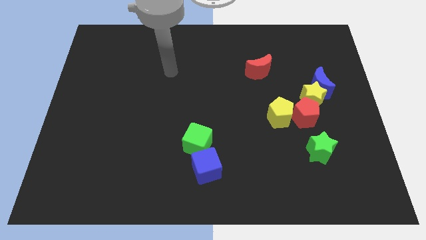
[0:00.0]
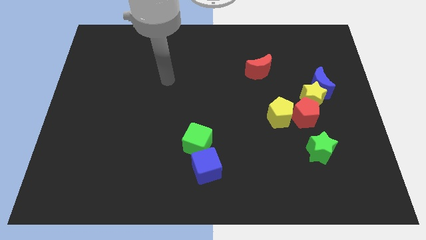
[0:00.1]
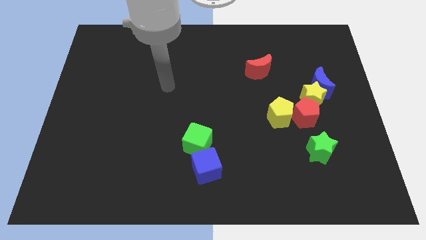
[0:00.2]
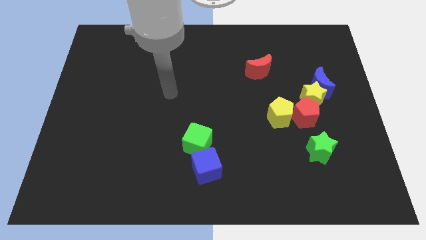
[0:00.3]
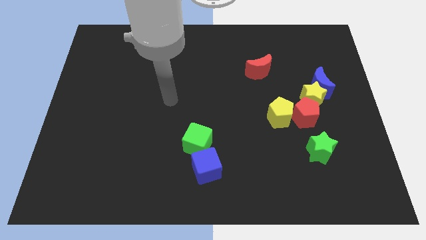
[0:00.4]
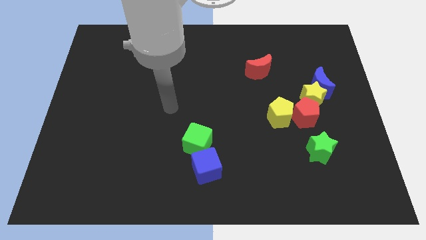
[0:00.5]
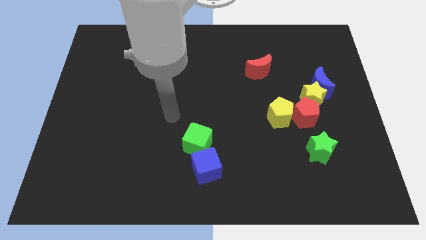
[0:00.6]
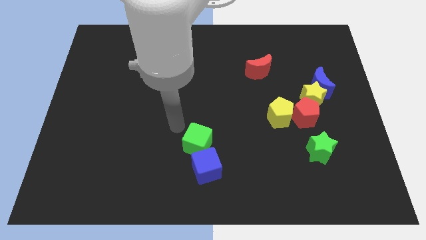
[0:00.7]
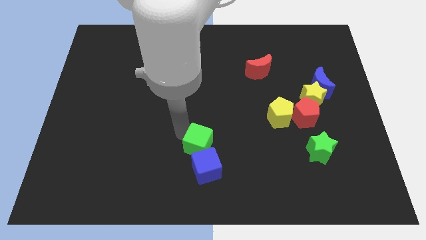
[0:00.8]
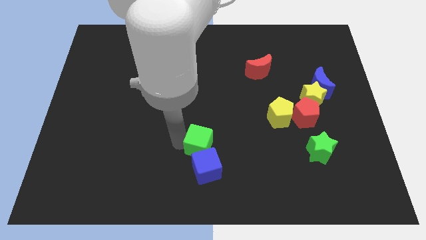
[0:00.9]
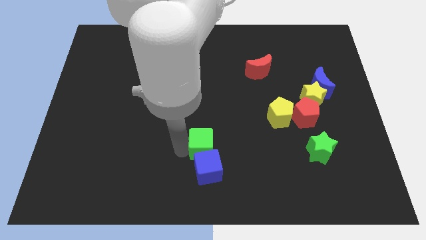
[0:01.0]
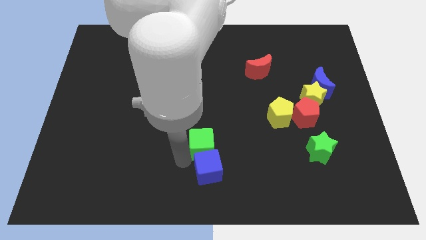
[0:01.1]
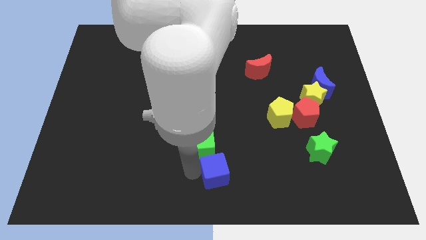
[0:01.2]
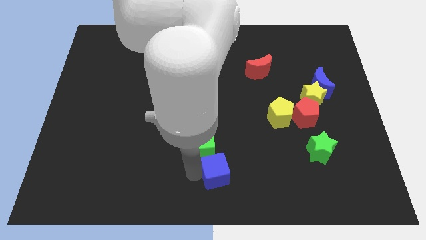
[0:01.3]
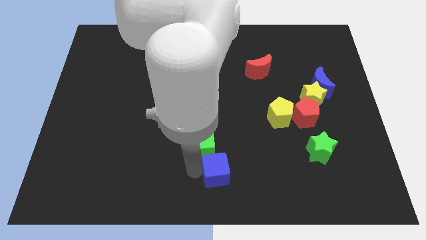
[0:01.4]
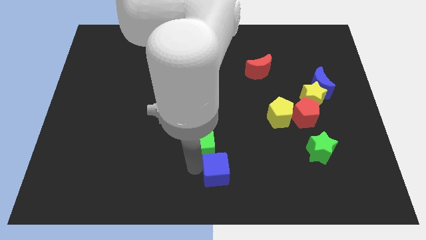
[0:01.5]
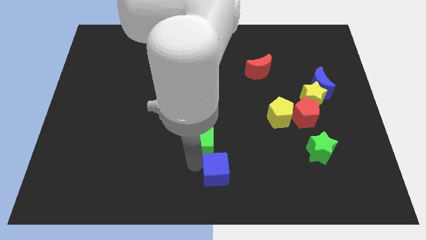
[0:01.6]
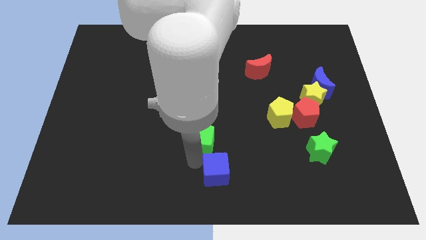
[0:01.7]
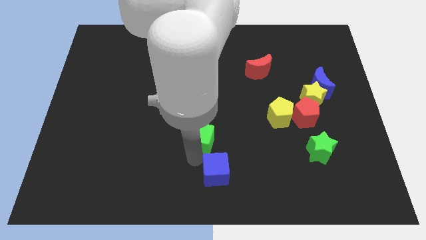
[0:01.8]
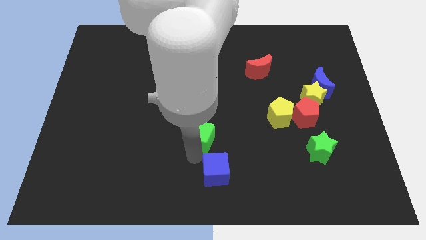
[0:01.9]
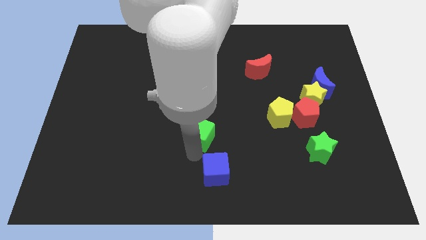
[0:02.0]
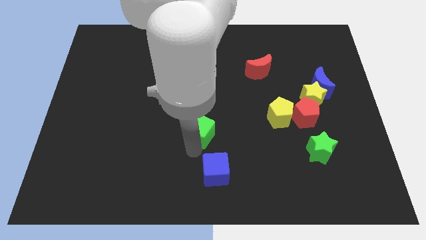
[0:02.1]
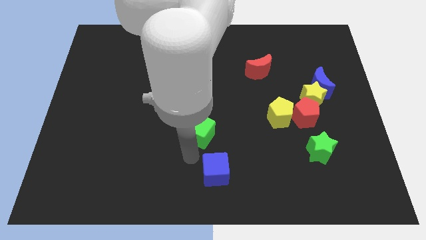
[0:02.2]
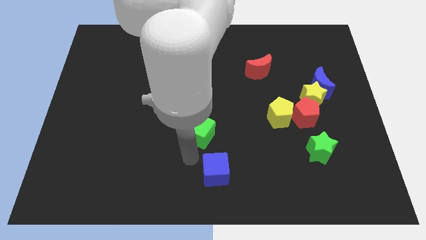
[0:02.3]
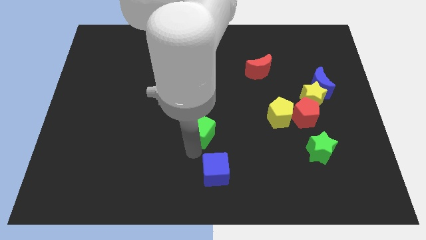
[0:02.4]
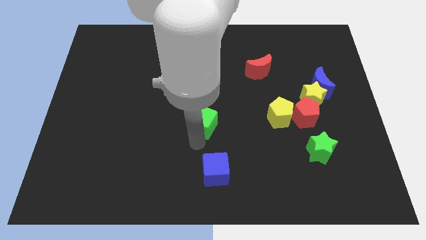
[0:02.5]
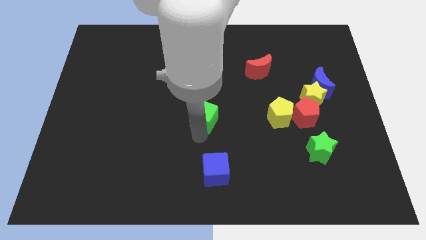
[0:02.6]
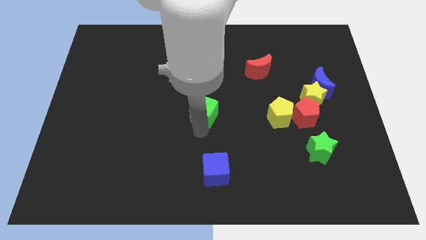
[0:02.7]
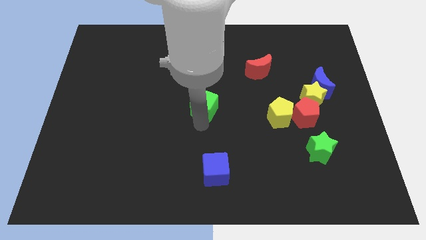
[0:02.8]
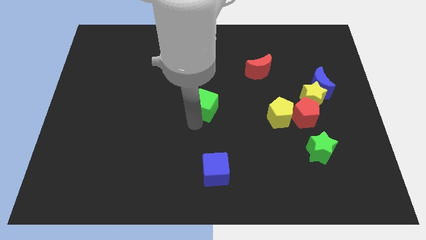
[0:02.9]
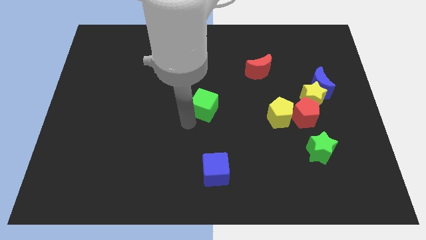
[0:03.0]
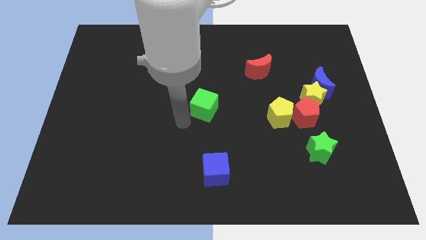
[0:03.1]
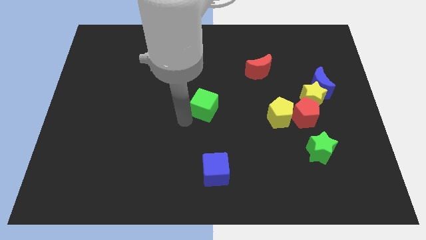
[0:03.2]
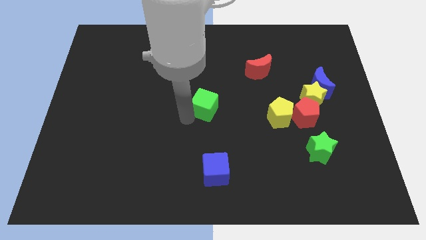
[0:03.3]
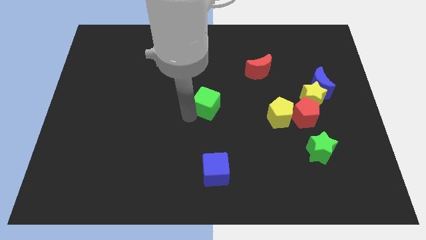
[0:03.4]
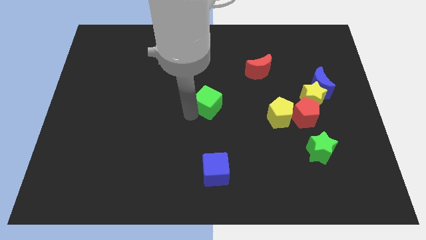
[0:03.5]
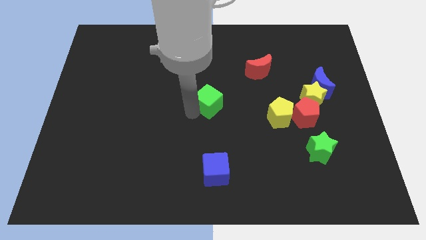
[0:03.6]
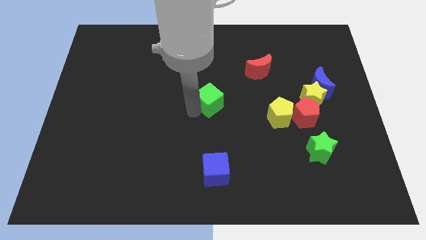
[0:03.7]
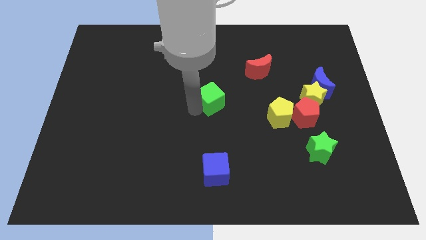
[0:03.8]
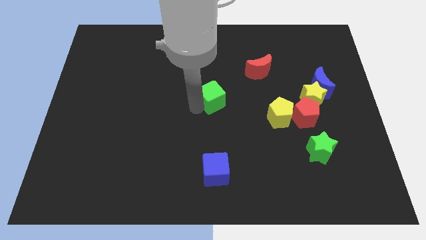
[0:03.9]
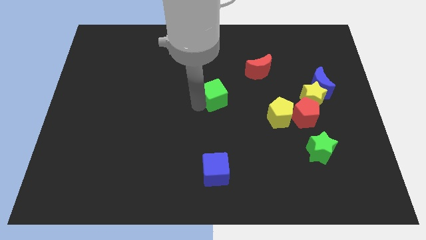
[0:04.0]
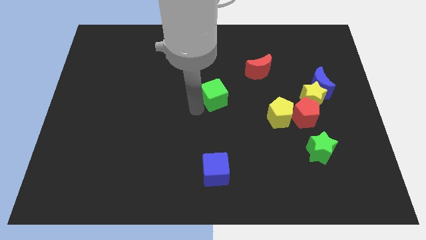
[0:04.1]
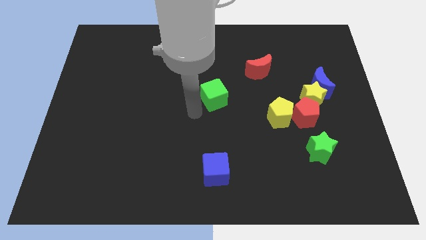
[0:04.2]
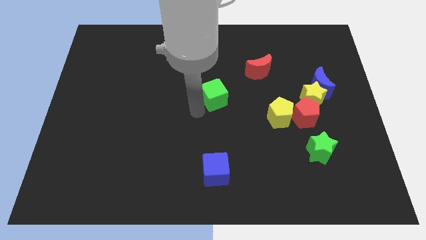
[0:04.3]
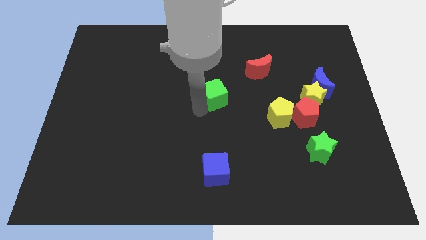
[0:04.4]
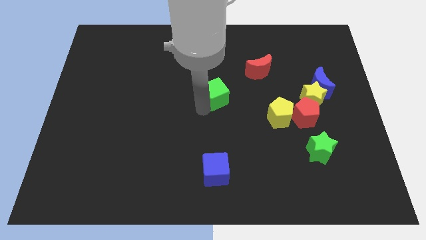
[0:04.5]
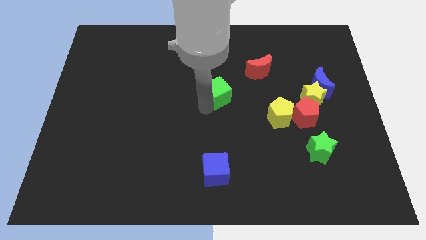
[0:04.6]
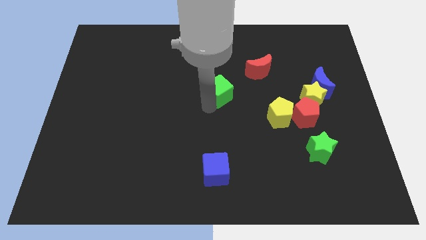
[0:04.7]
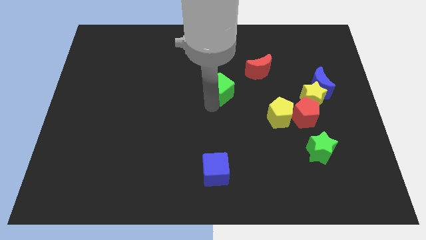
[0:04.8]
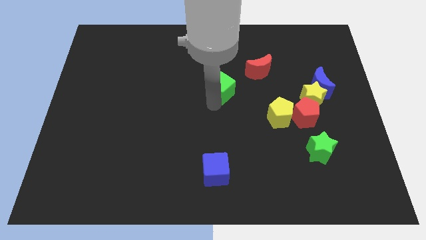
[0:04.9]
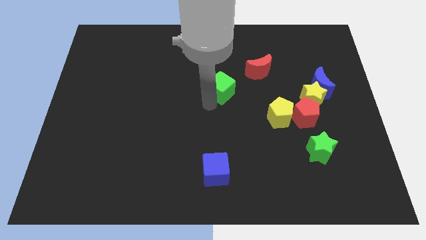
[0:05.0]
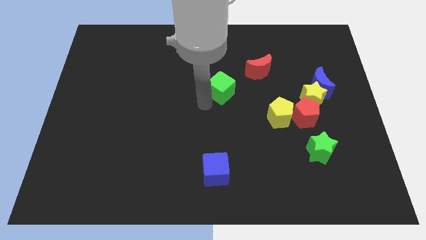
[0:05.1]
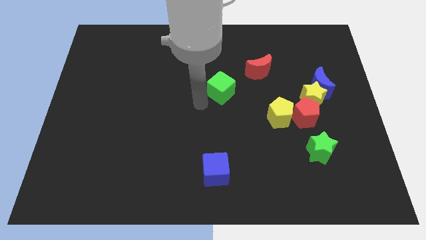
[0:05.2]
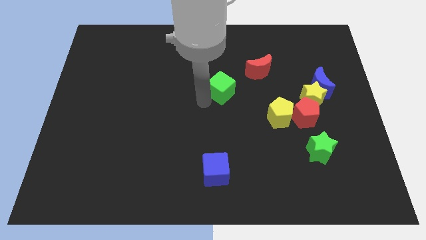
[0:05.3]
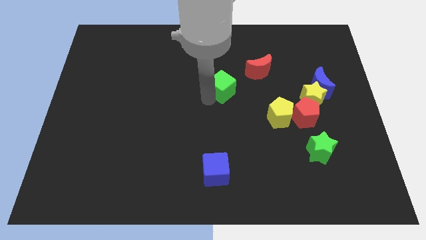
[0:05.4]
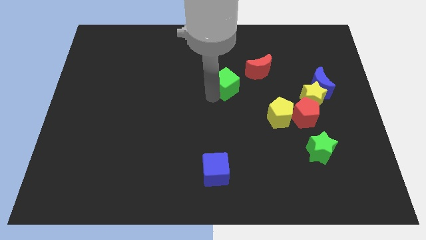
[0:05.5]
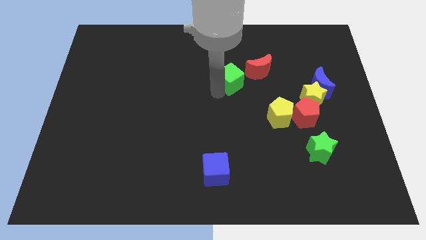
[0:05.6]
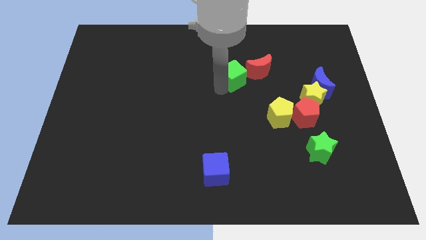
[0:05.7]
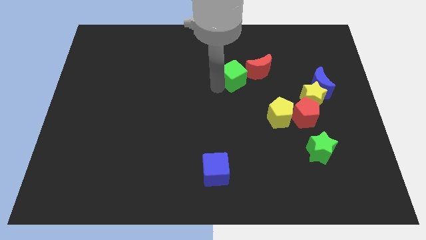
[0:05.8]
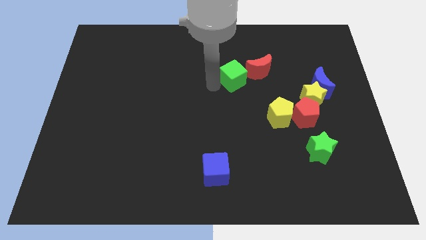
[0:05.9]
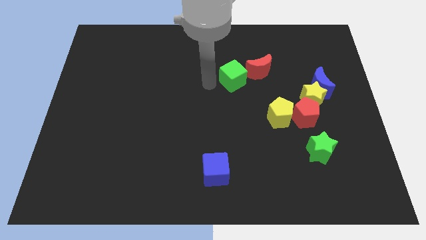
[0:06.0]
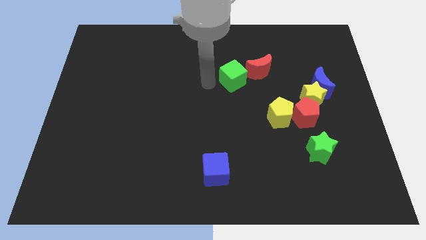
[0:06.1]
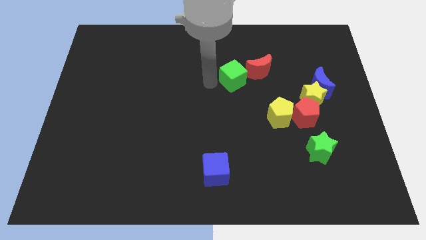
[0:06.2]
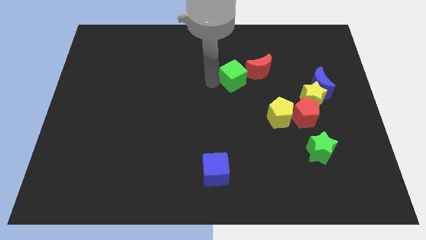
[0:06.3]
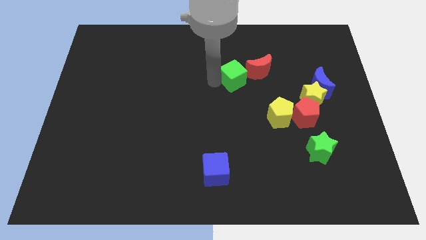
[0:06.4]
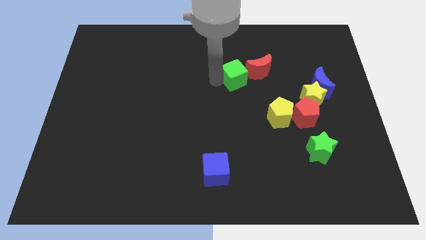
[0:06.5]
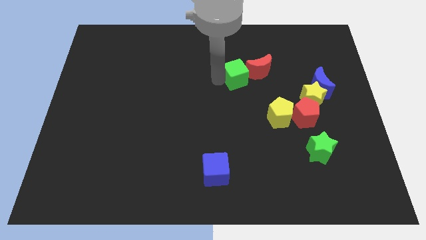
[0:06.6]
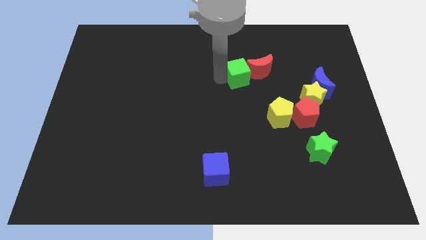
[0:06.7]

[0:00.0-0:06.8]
push the green cube towards the red moon

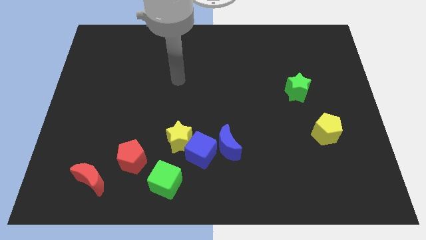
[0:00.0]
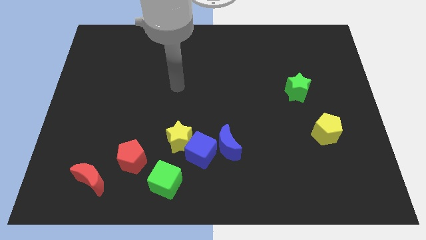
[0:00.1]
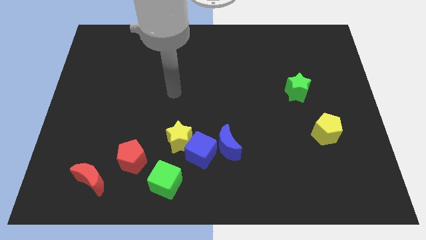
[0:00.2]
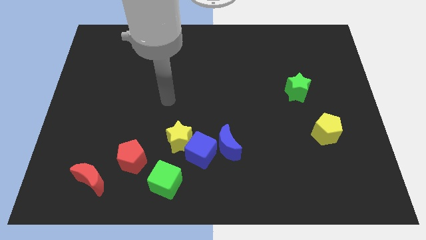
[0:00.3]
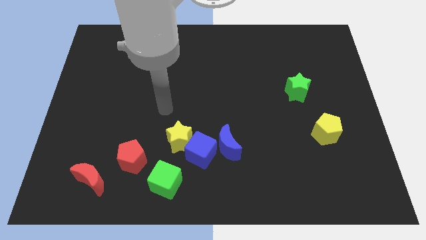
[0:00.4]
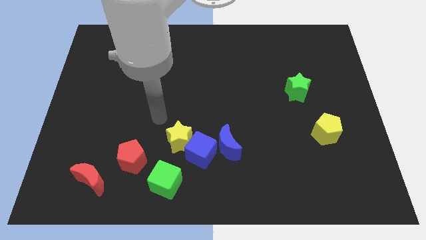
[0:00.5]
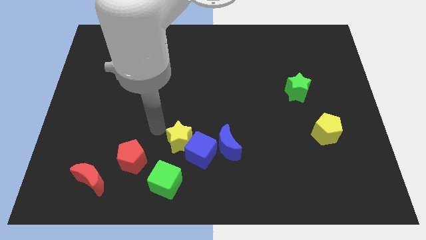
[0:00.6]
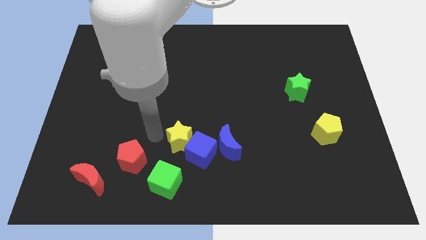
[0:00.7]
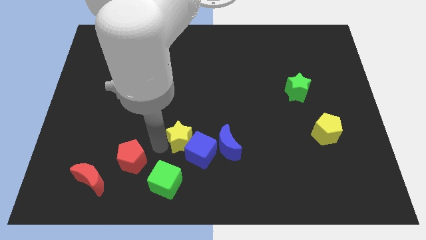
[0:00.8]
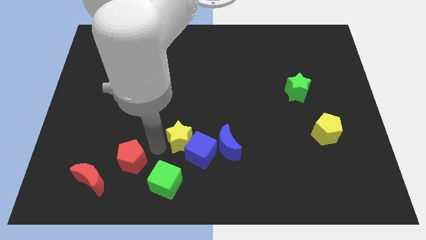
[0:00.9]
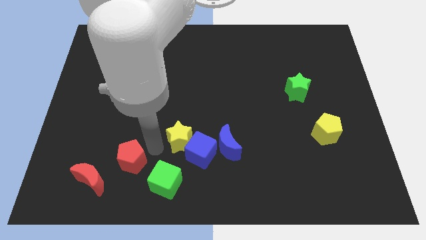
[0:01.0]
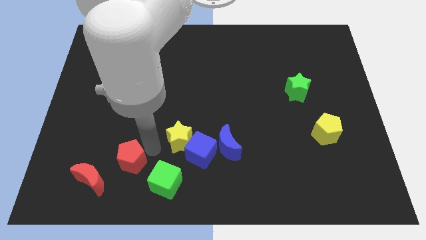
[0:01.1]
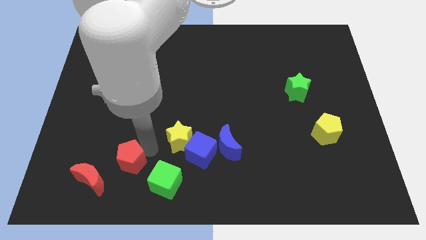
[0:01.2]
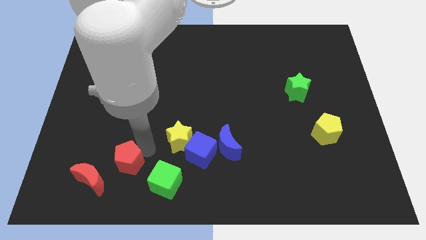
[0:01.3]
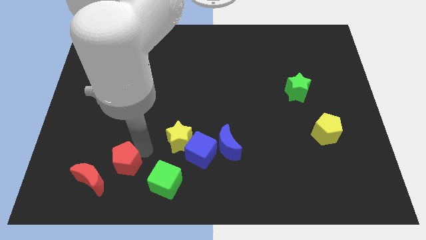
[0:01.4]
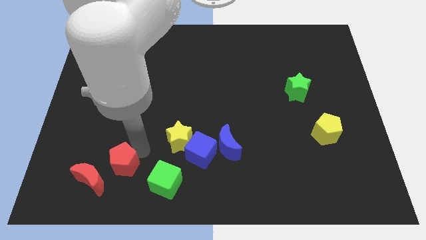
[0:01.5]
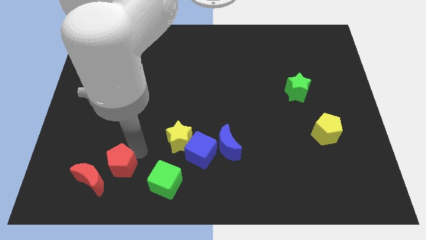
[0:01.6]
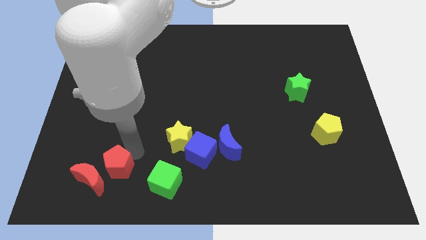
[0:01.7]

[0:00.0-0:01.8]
slide the red pentagon next to the red moon
